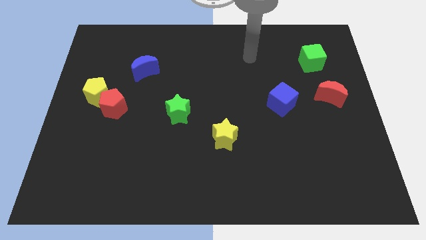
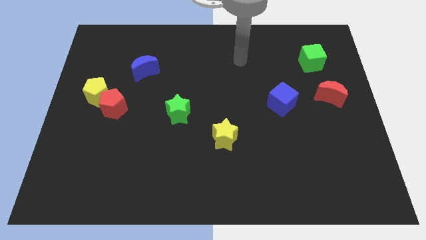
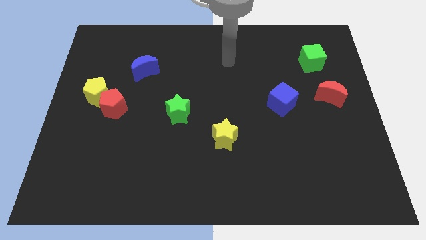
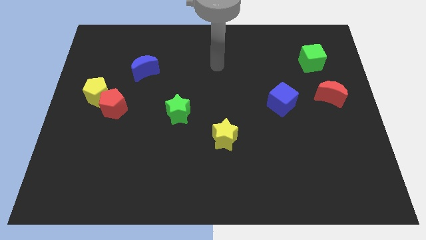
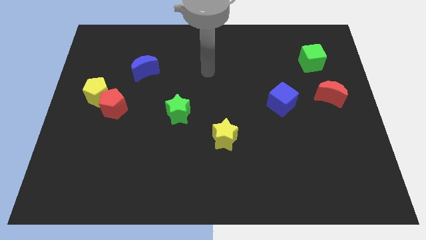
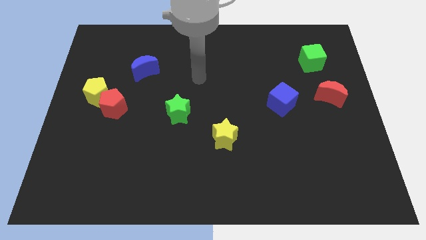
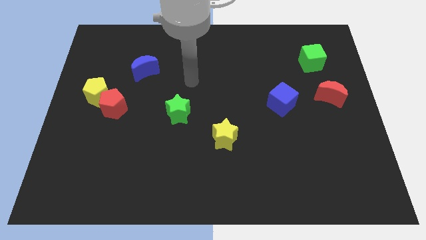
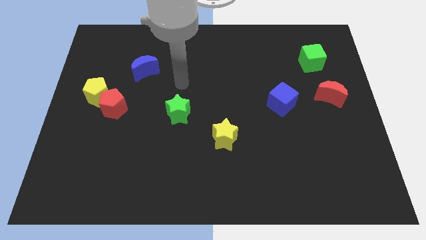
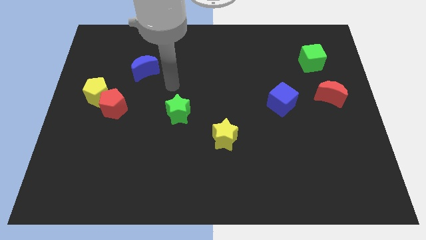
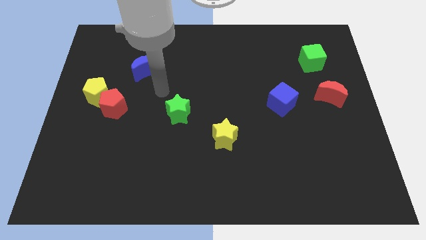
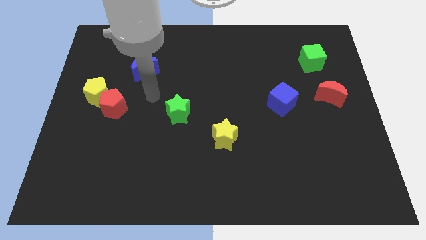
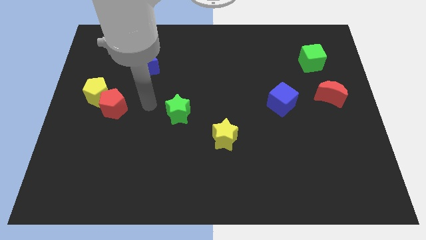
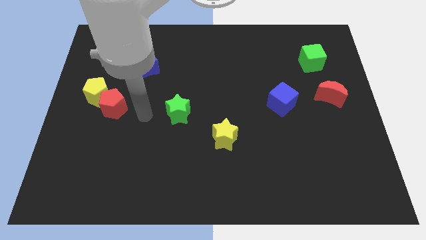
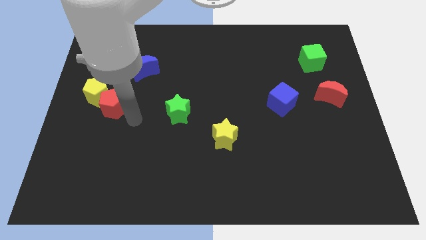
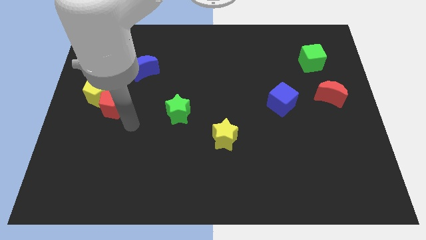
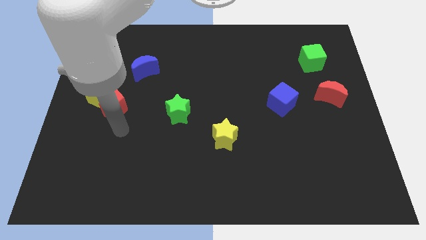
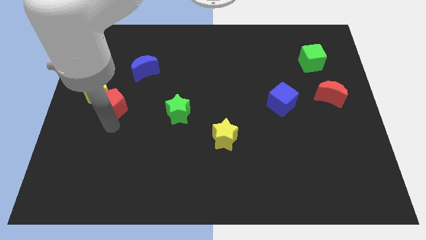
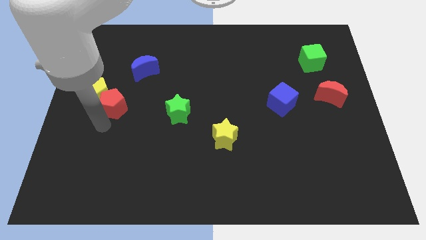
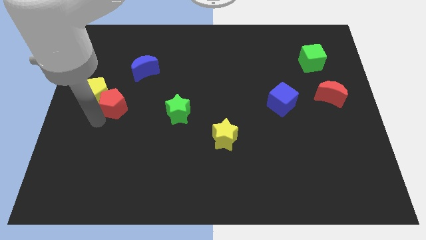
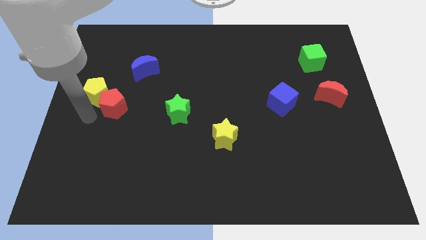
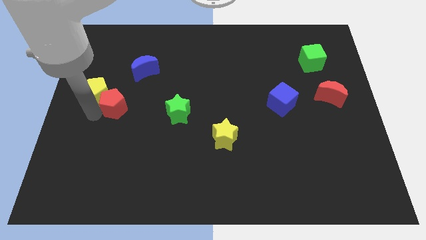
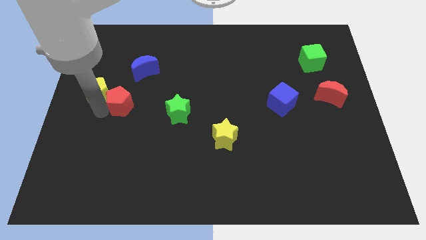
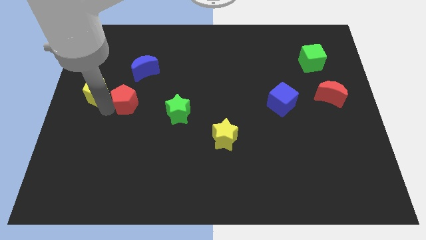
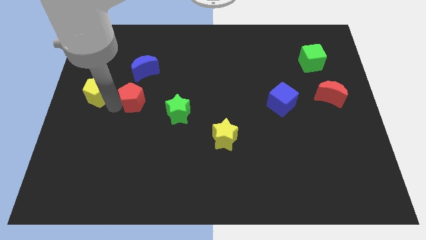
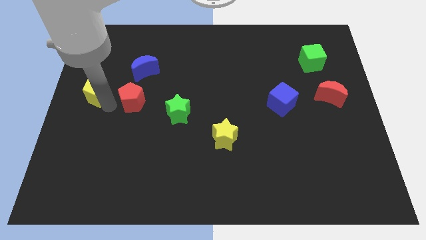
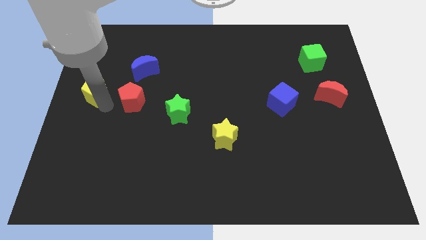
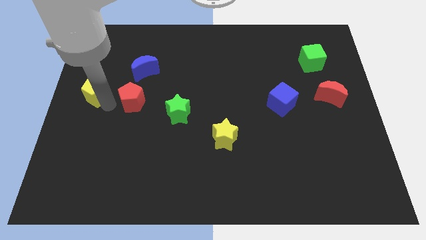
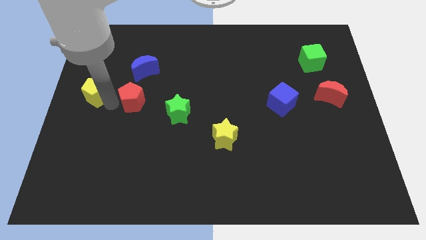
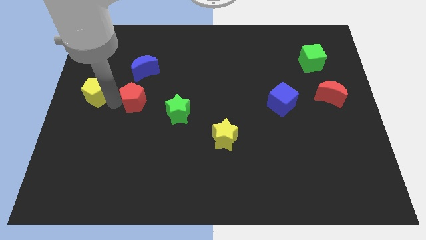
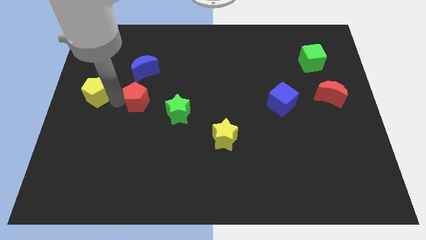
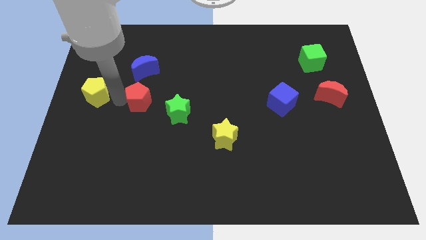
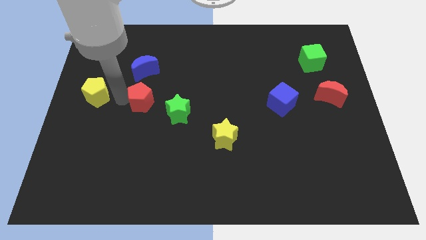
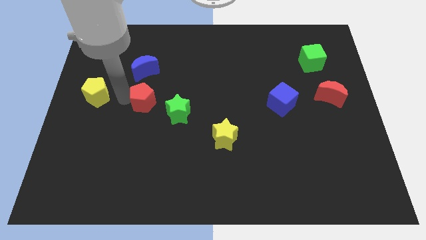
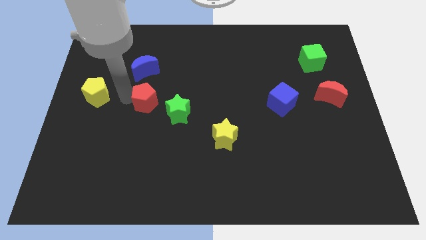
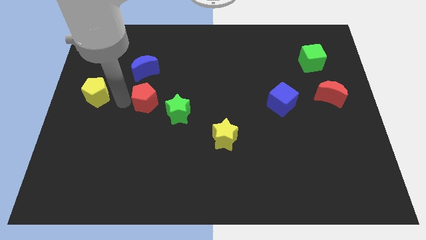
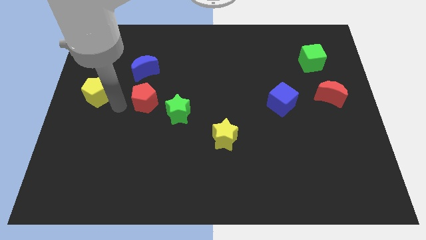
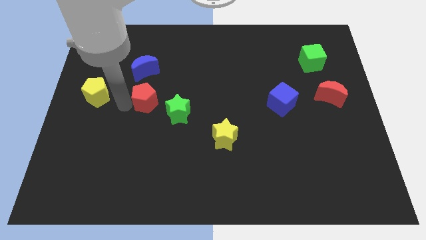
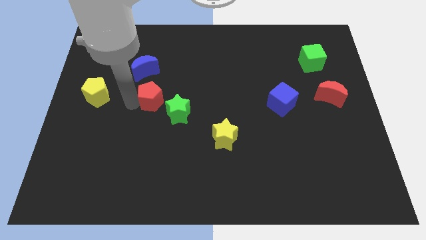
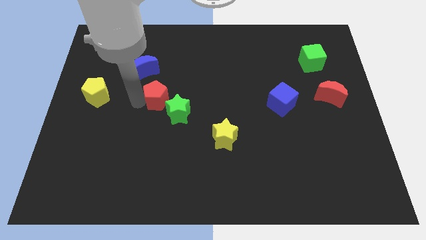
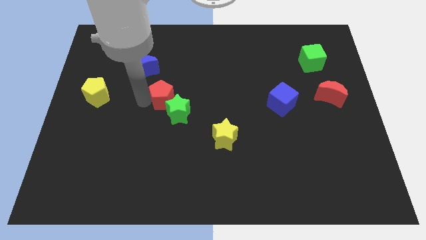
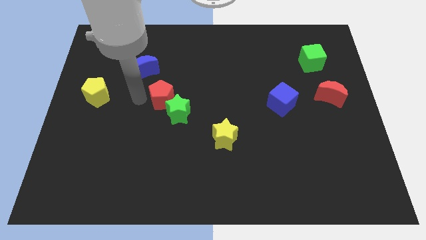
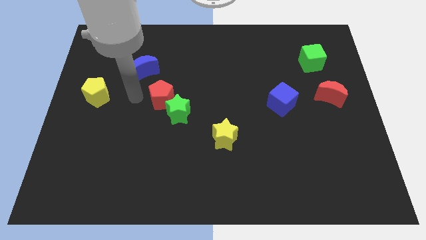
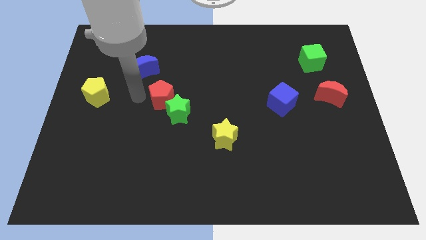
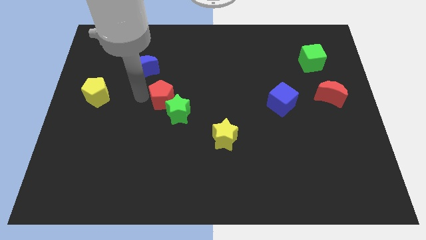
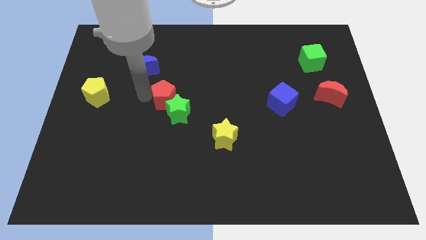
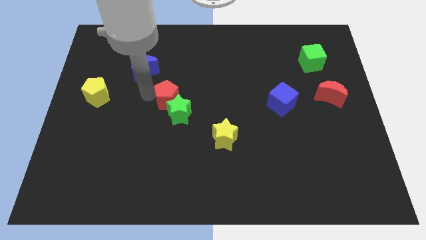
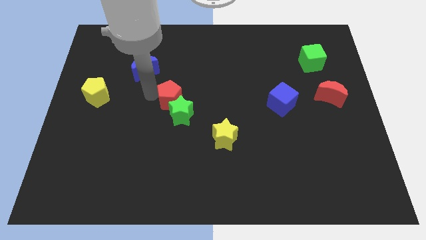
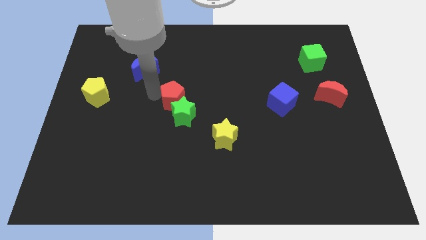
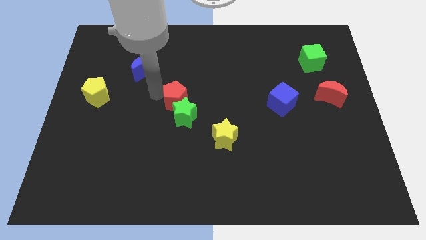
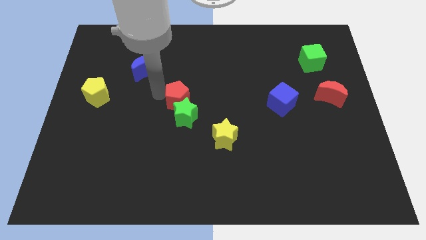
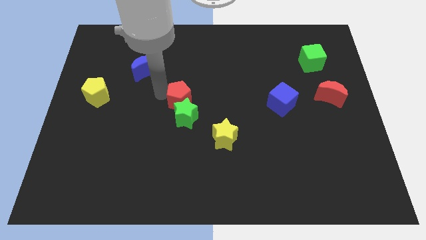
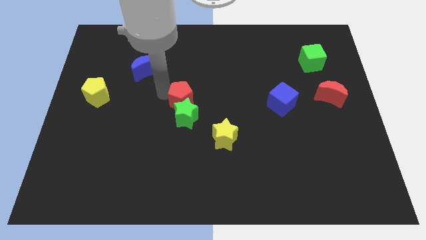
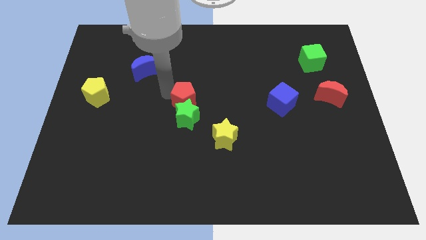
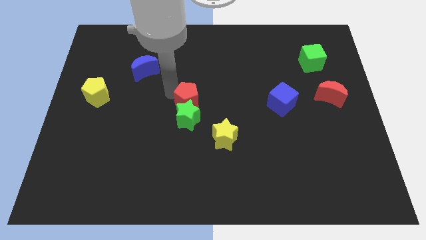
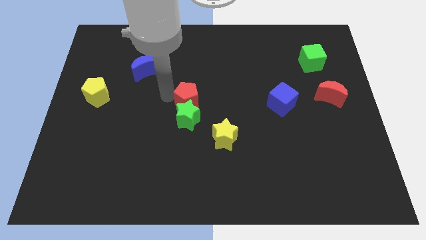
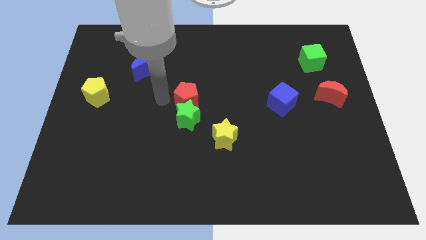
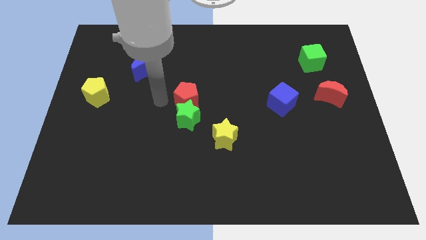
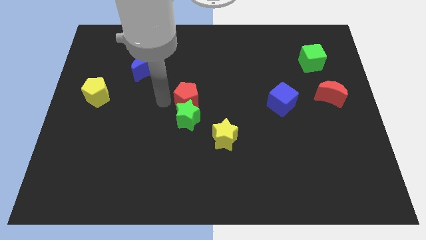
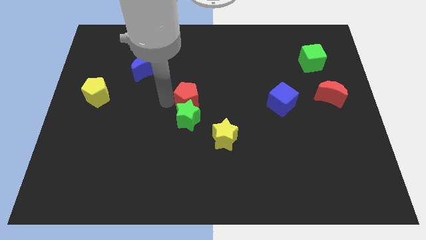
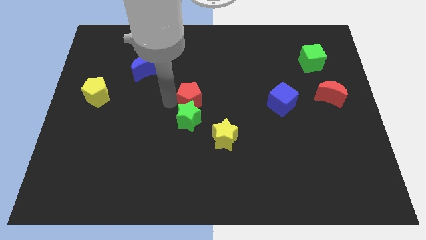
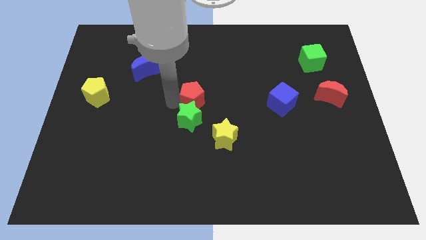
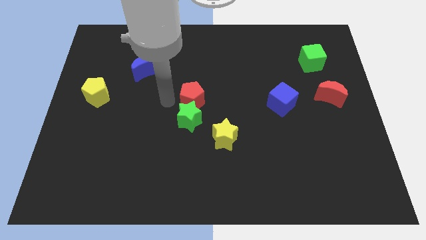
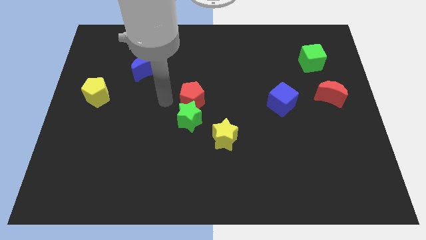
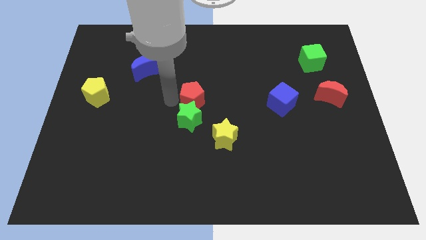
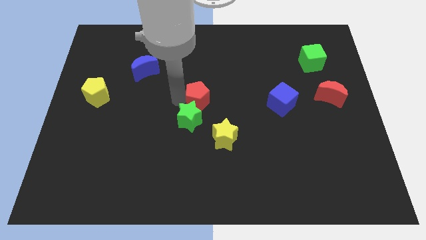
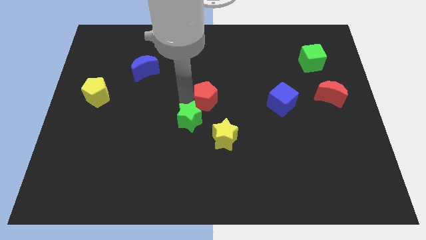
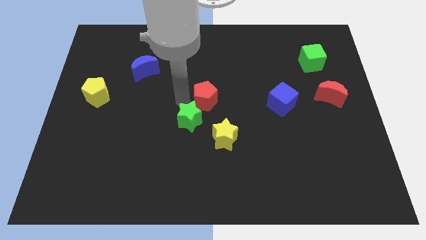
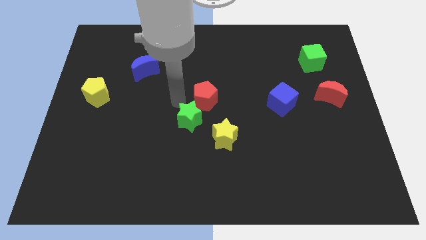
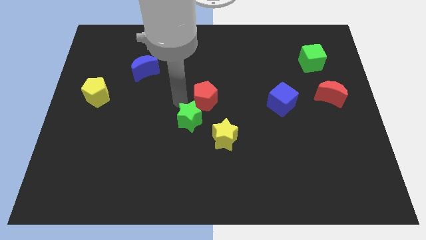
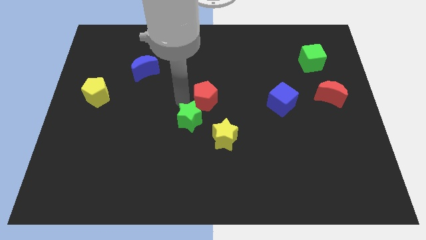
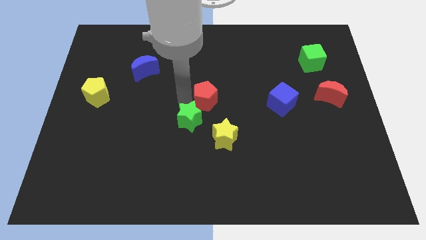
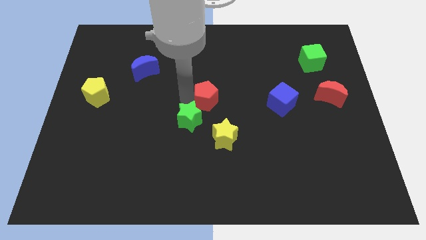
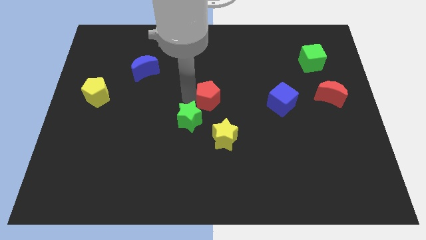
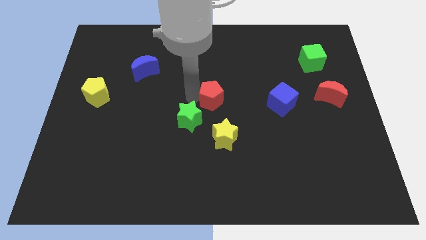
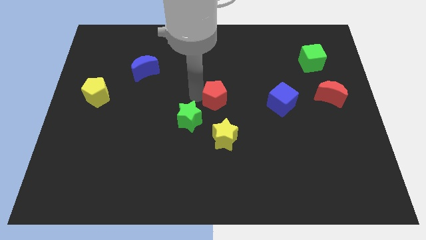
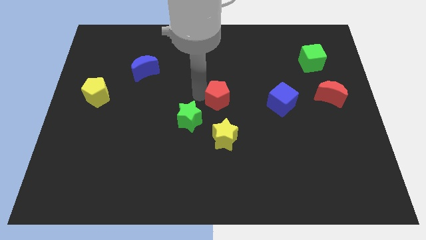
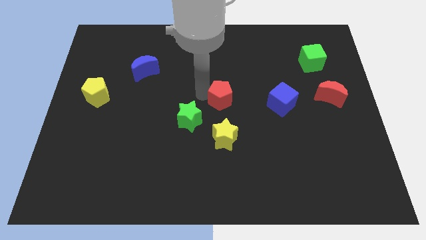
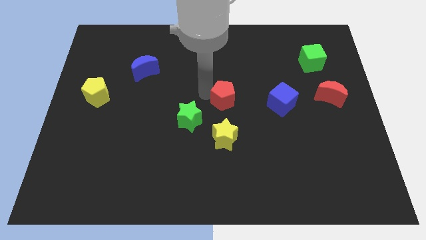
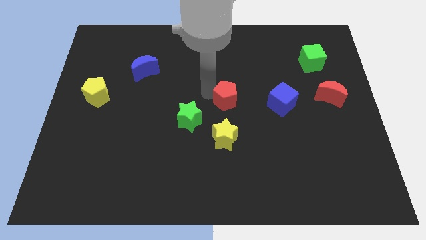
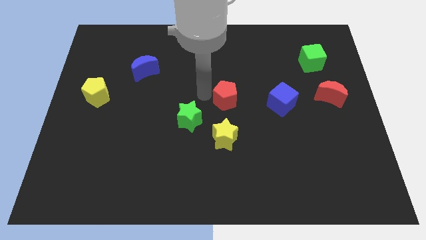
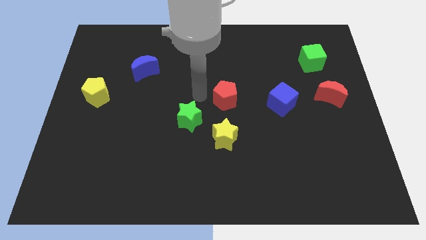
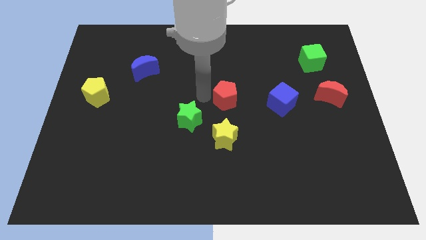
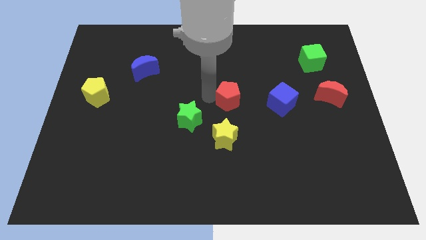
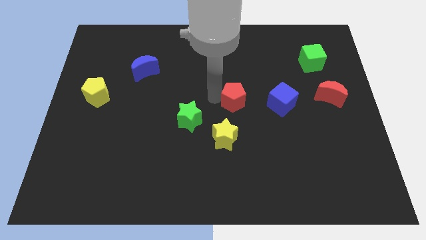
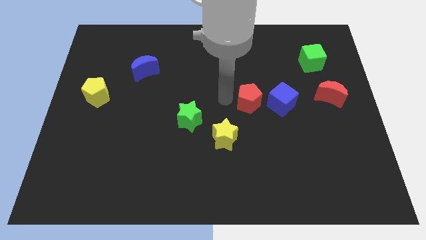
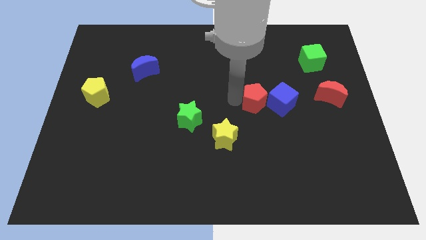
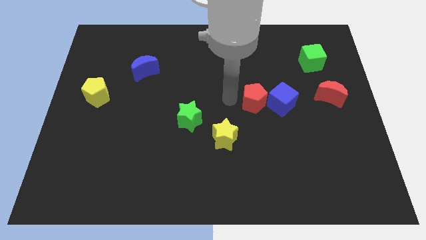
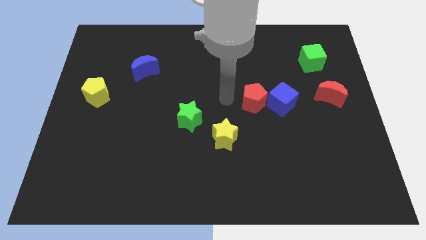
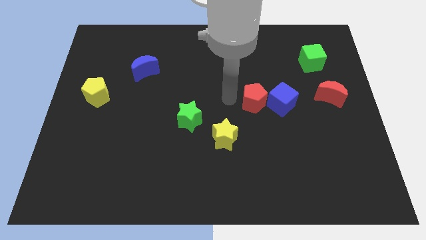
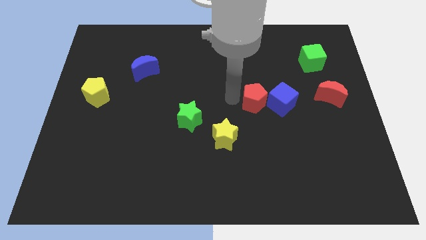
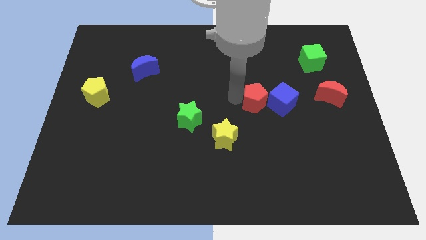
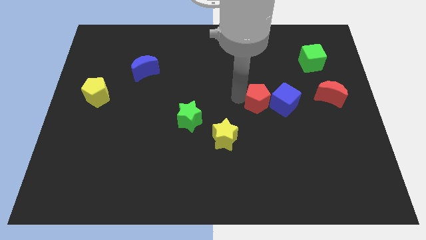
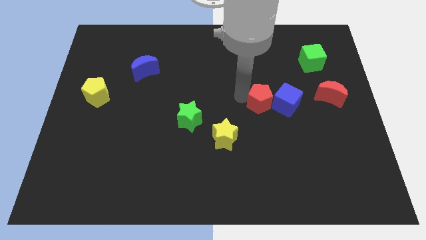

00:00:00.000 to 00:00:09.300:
slide the red pentagon close to the blue cube
